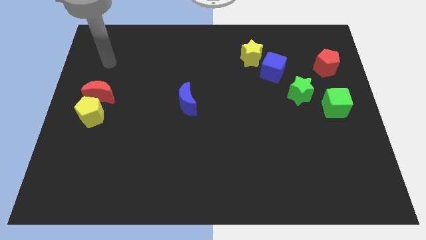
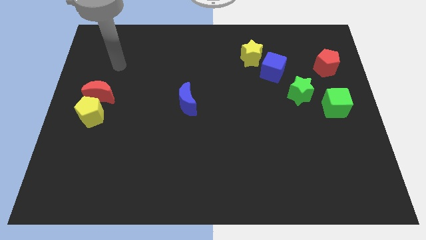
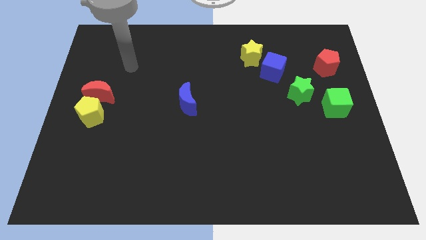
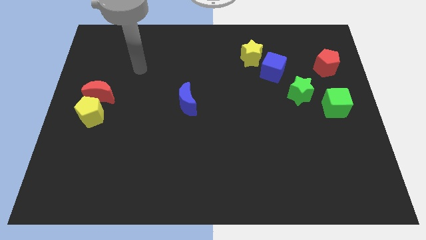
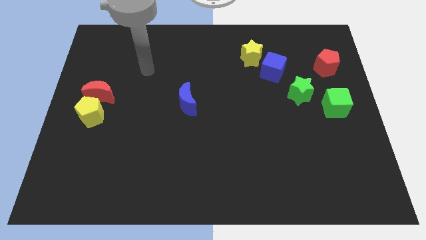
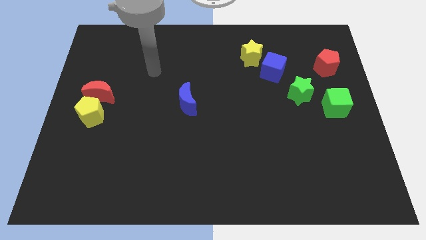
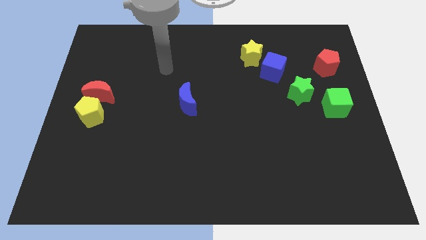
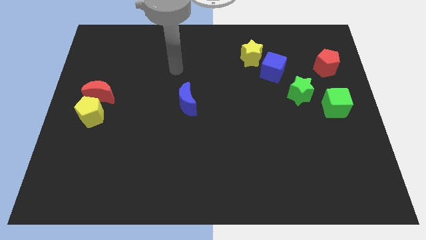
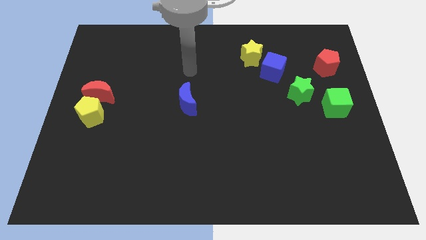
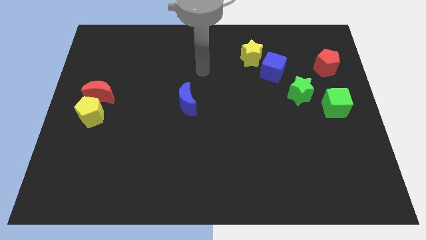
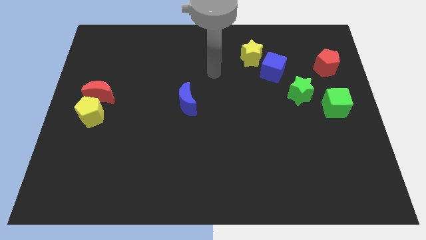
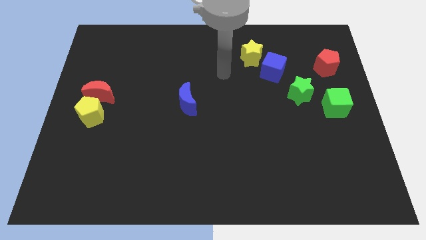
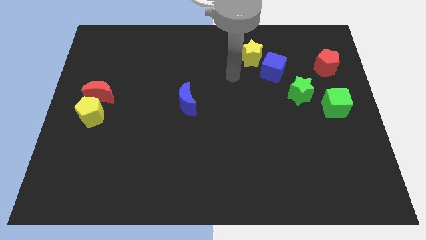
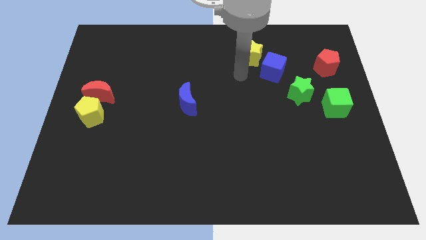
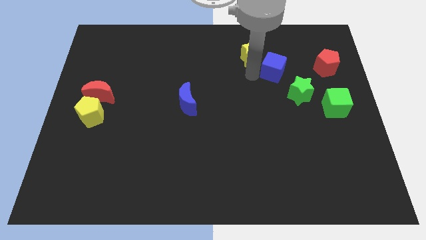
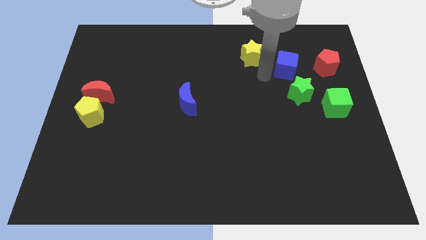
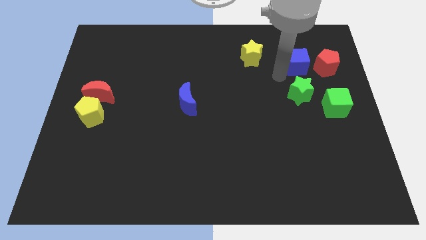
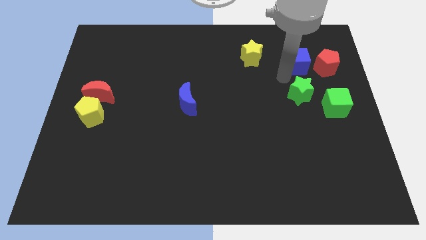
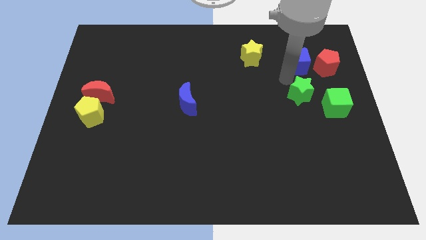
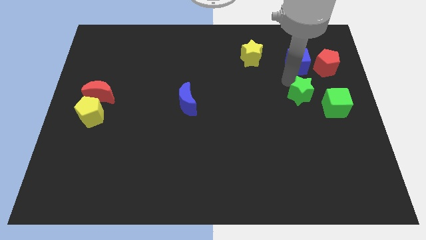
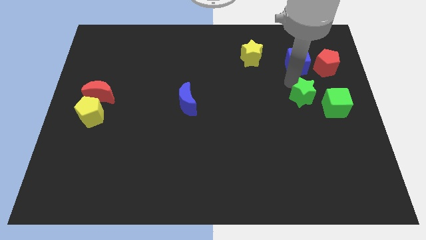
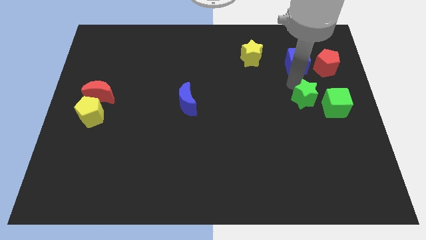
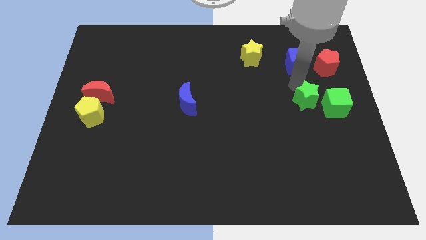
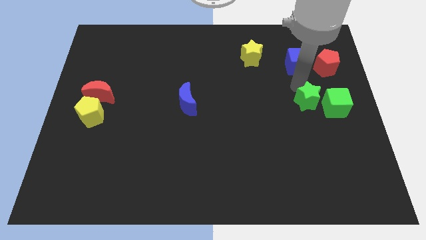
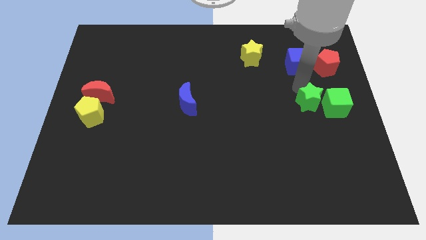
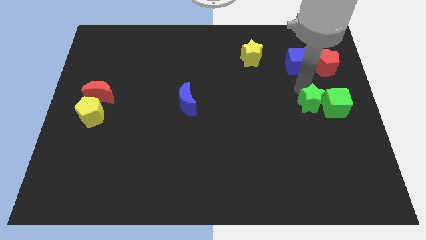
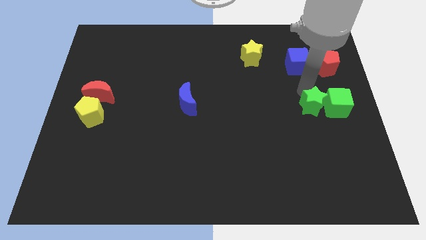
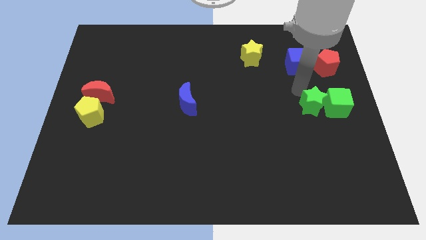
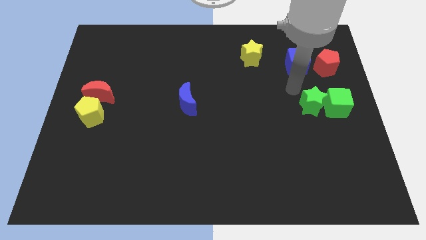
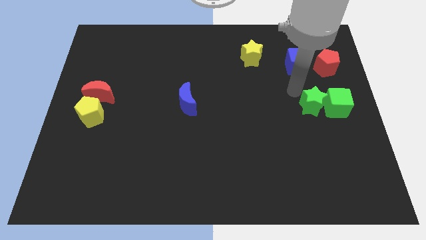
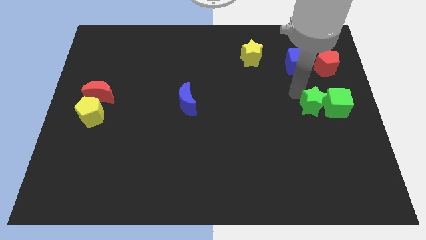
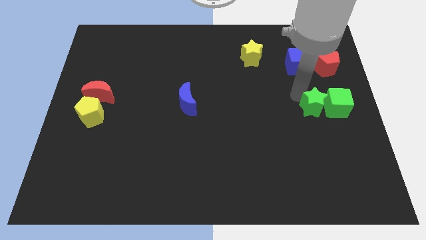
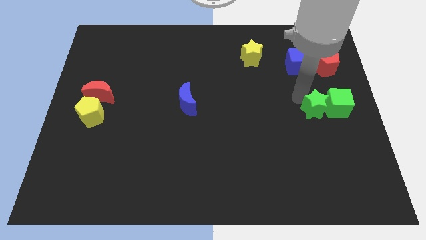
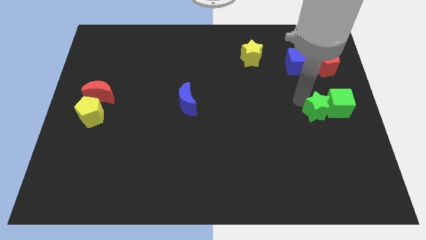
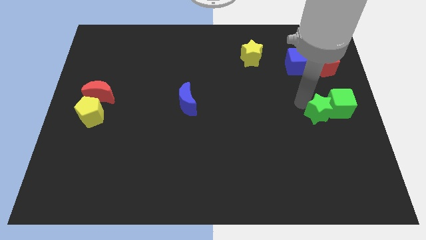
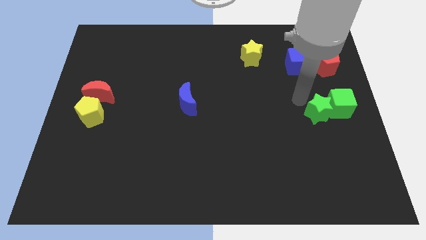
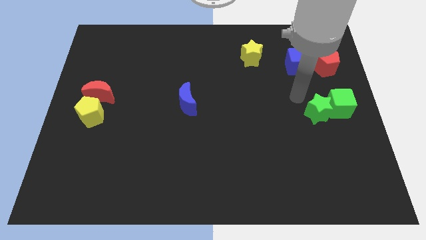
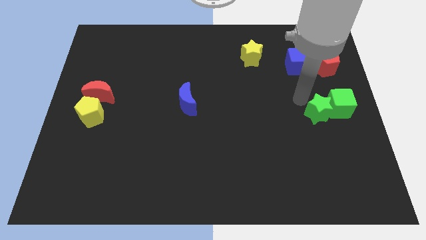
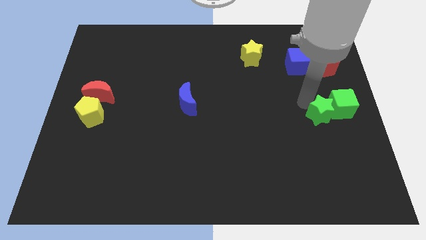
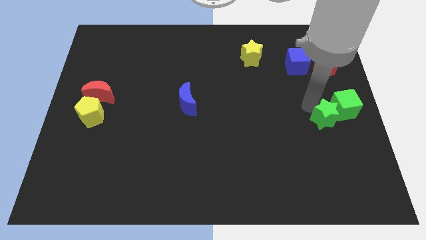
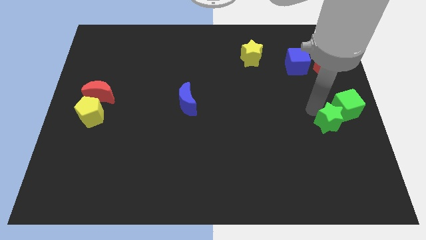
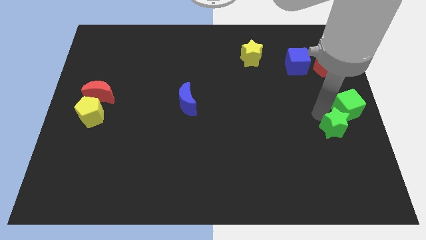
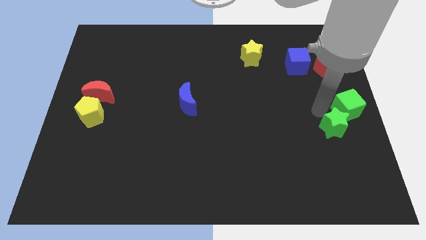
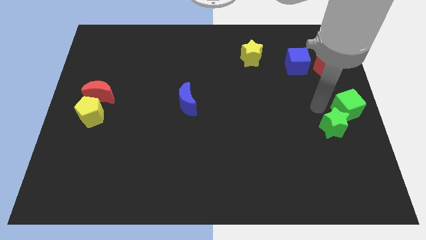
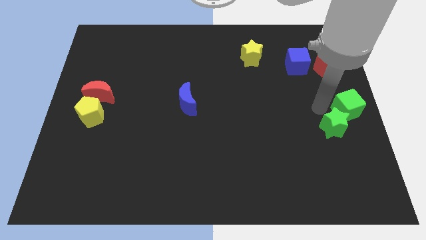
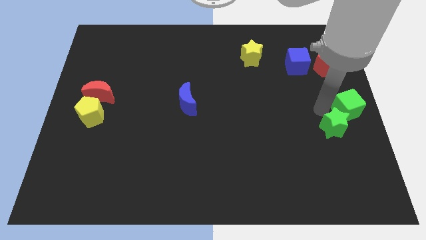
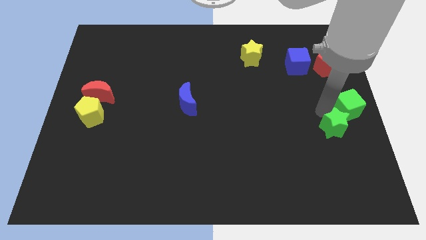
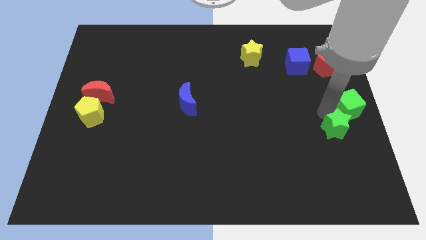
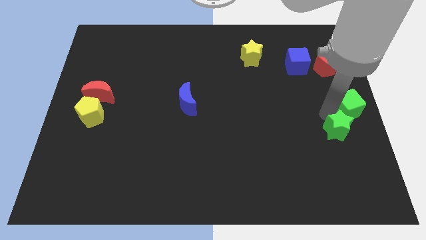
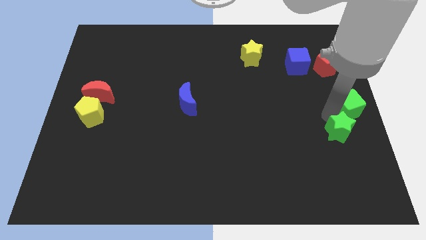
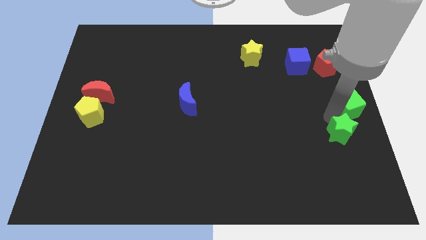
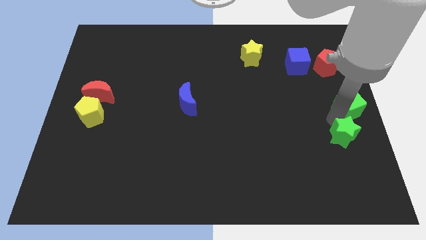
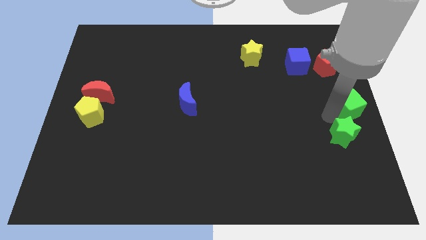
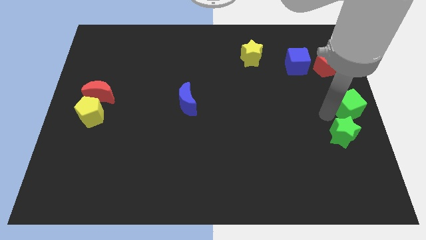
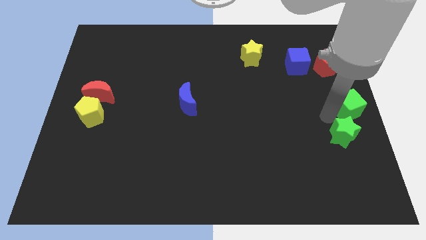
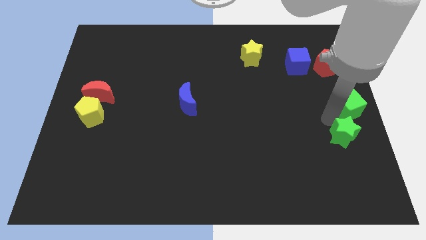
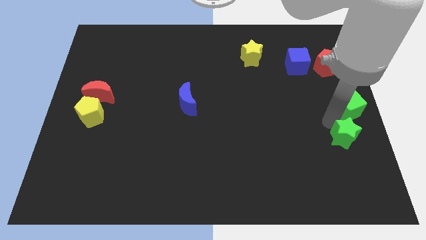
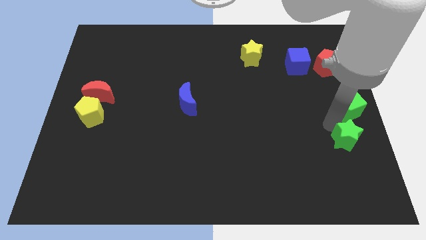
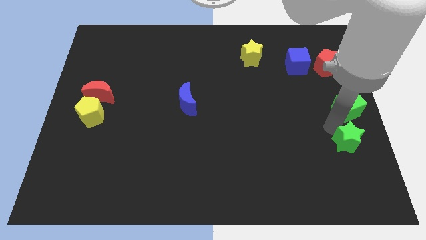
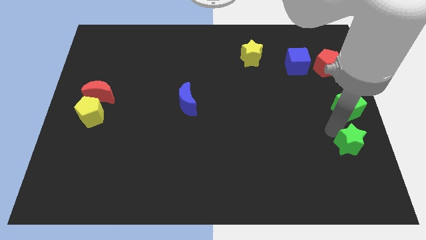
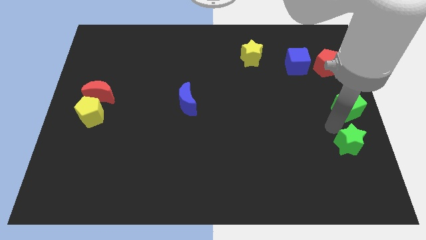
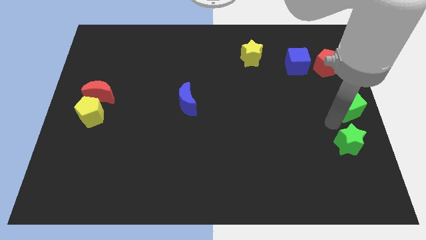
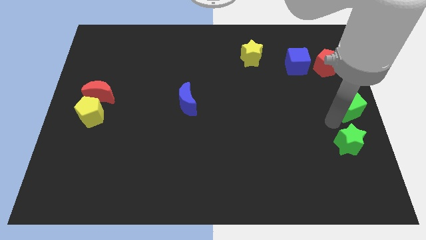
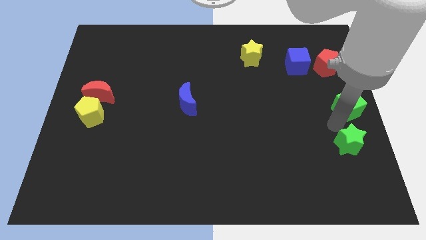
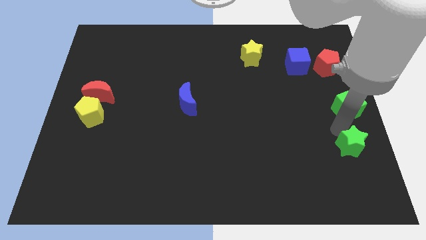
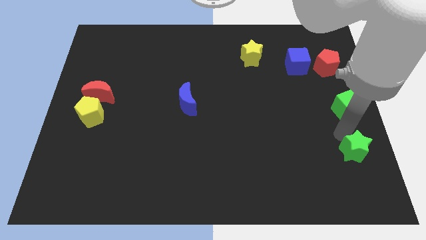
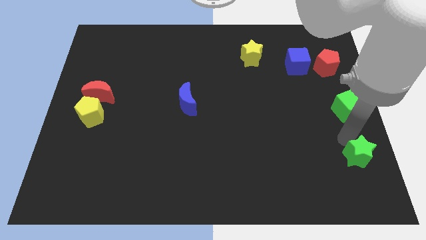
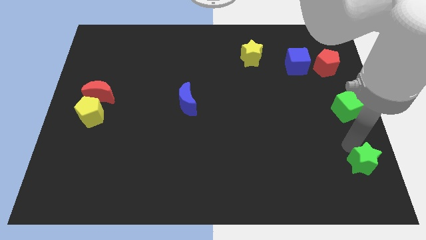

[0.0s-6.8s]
push the green star to the lower right corner
